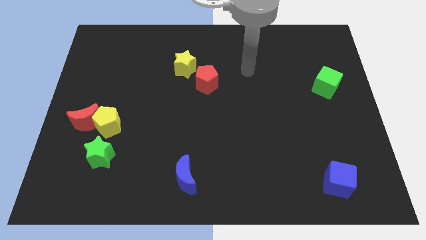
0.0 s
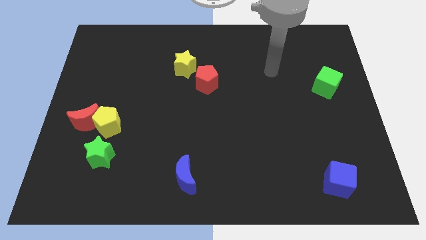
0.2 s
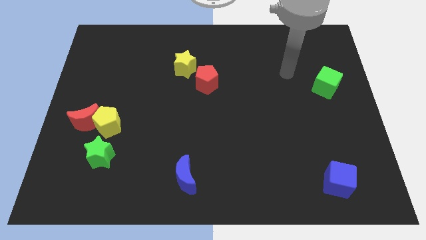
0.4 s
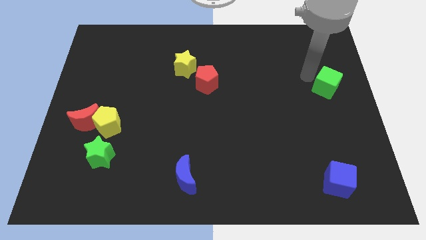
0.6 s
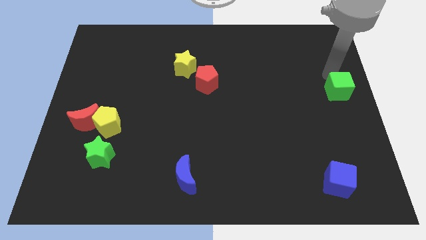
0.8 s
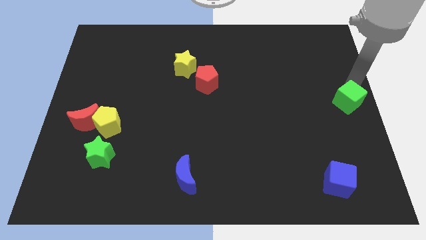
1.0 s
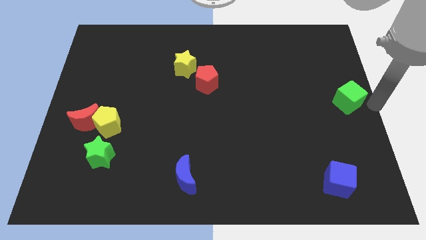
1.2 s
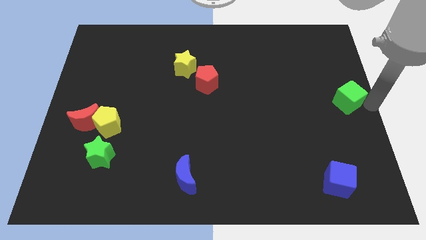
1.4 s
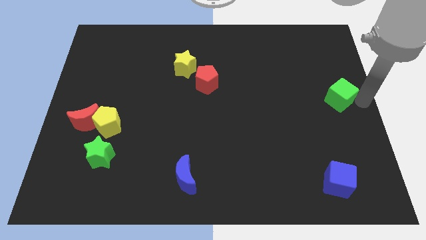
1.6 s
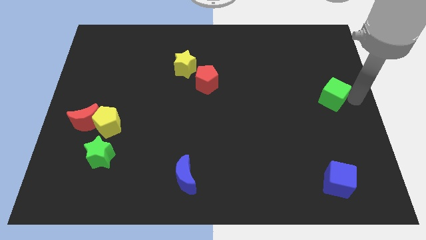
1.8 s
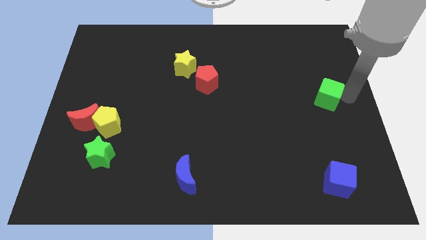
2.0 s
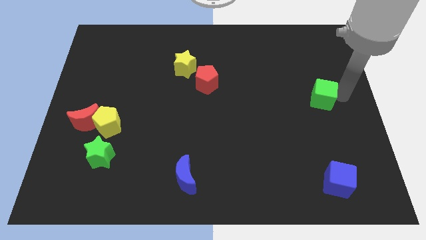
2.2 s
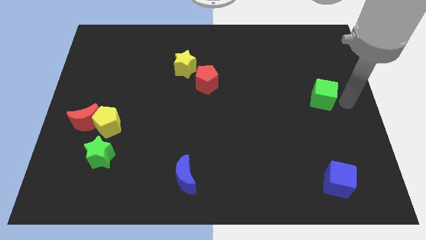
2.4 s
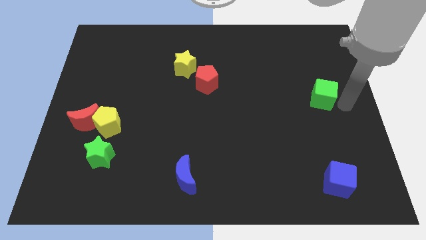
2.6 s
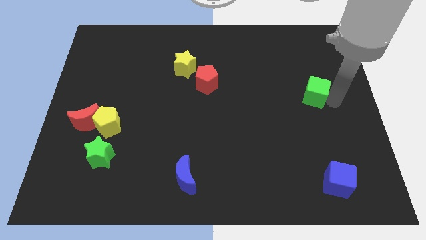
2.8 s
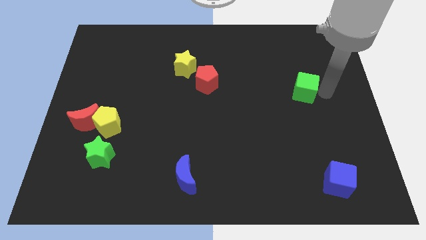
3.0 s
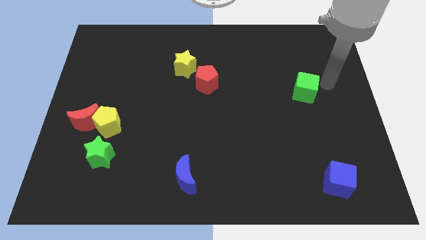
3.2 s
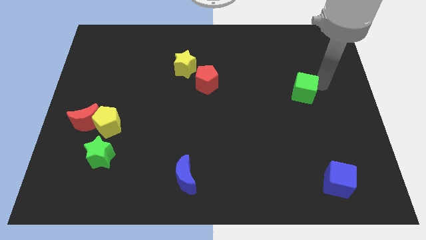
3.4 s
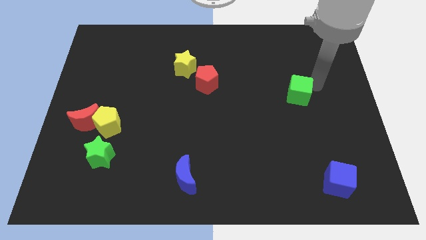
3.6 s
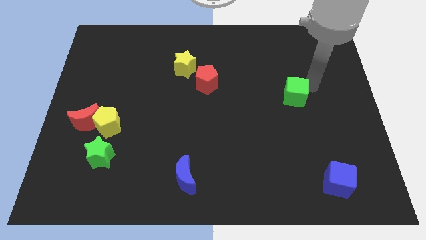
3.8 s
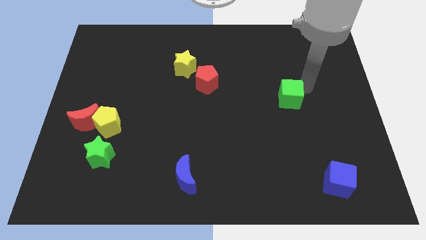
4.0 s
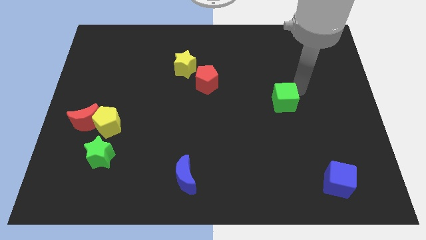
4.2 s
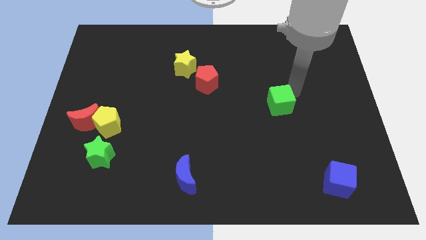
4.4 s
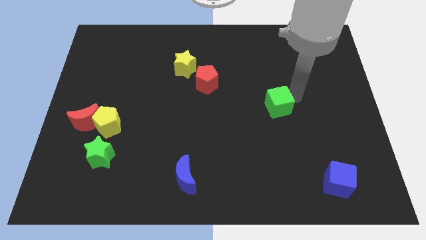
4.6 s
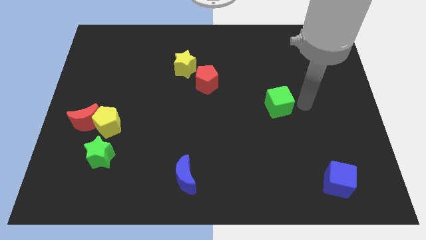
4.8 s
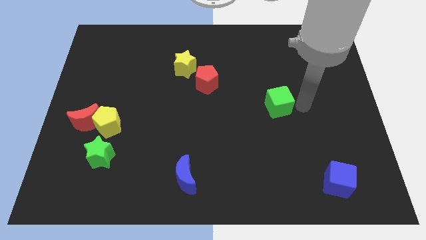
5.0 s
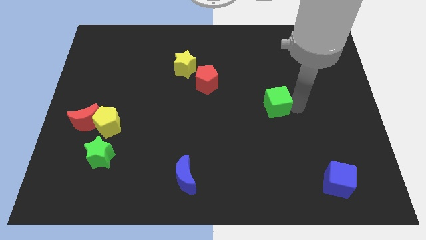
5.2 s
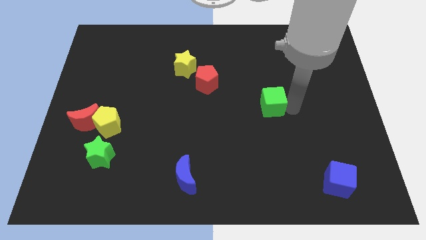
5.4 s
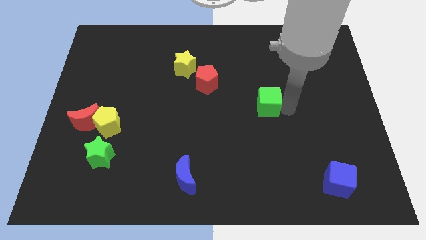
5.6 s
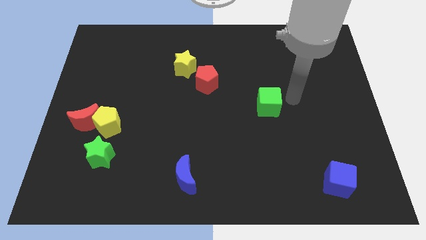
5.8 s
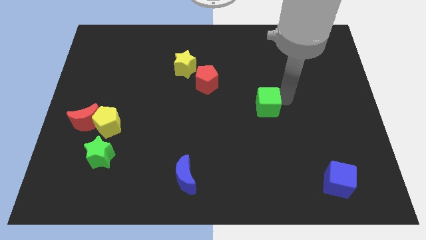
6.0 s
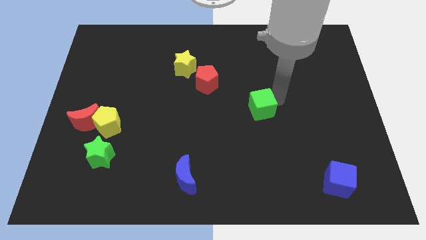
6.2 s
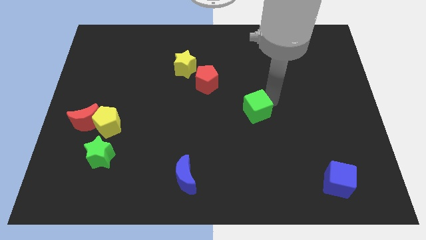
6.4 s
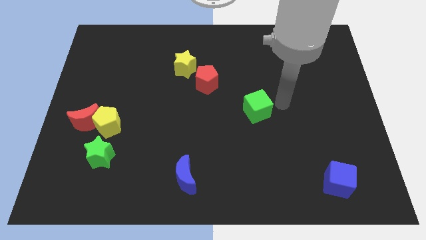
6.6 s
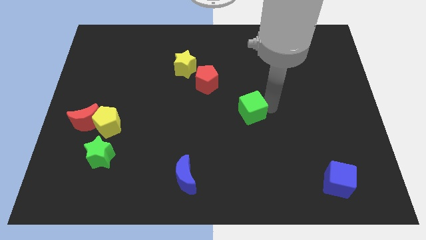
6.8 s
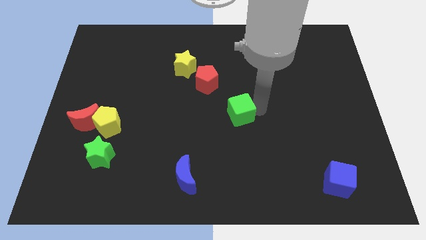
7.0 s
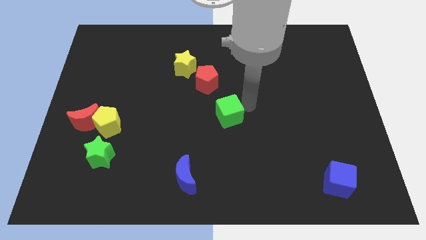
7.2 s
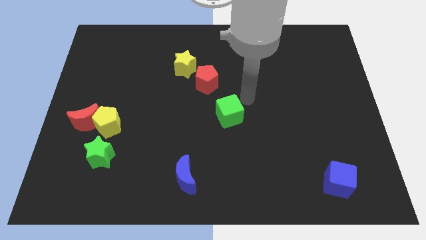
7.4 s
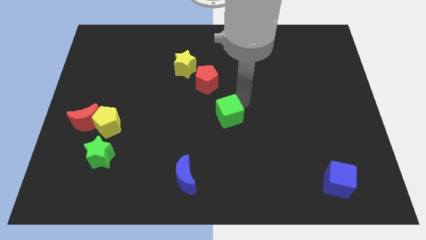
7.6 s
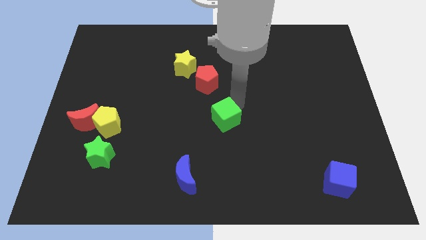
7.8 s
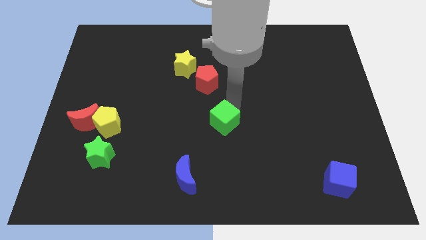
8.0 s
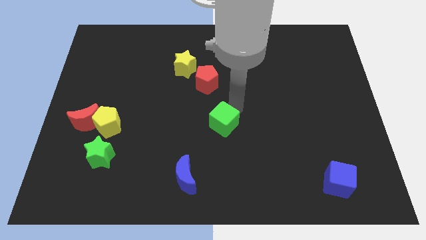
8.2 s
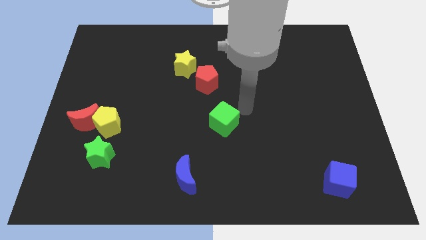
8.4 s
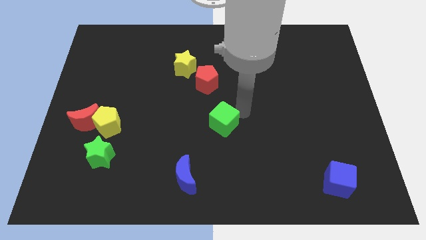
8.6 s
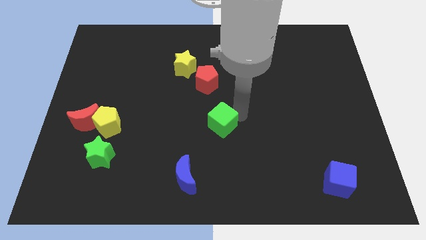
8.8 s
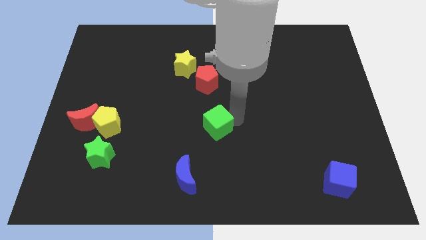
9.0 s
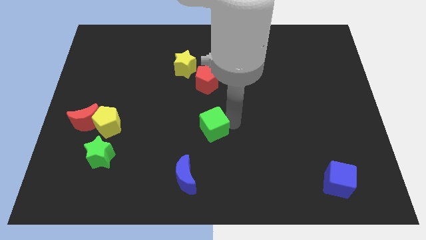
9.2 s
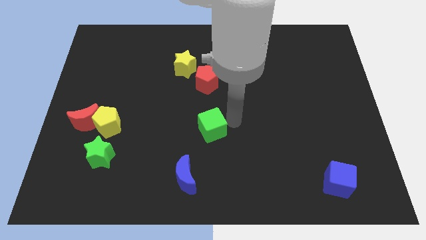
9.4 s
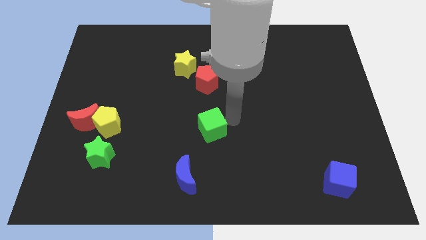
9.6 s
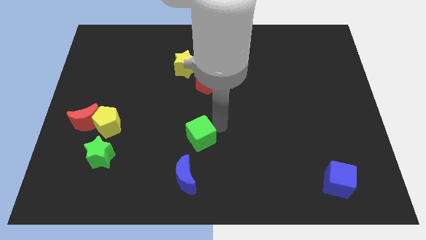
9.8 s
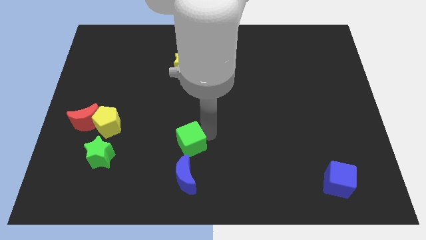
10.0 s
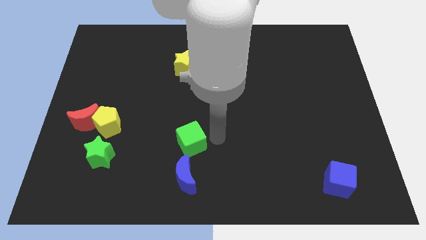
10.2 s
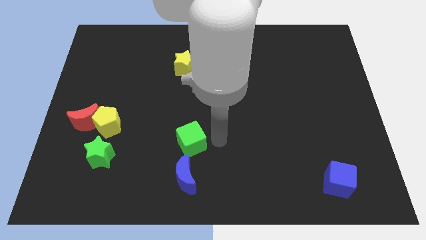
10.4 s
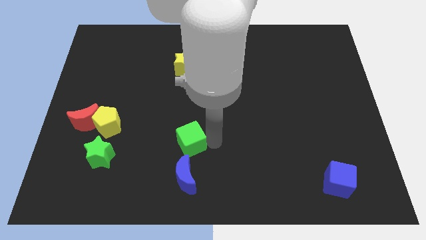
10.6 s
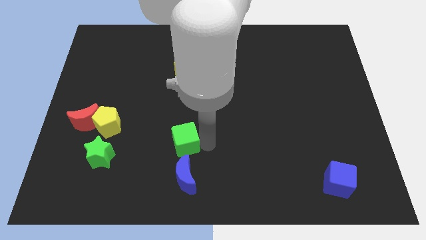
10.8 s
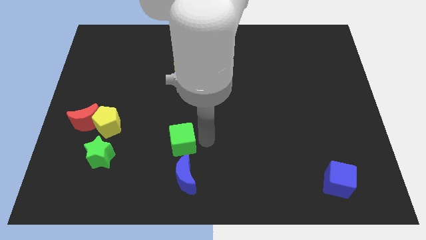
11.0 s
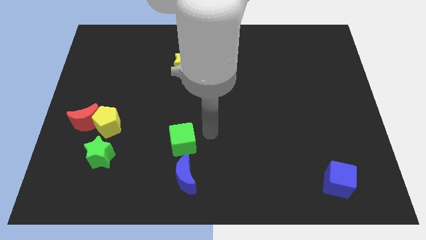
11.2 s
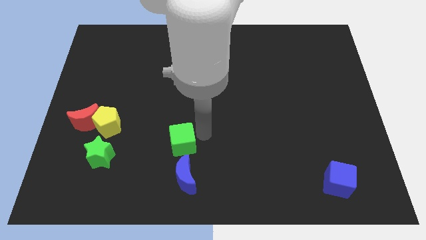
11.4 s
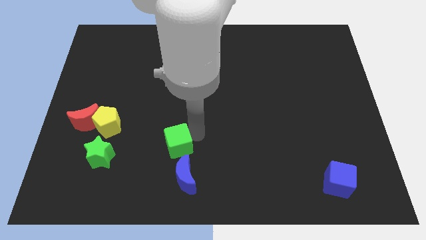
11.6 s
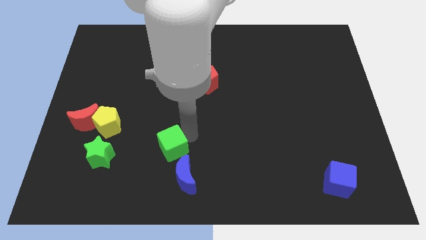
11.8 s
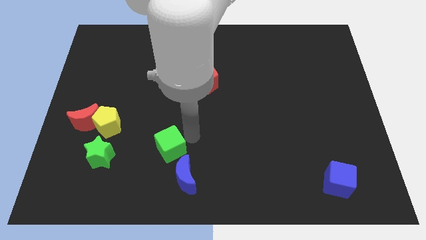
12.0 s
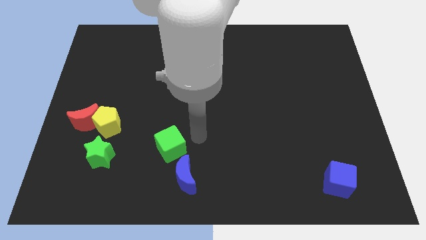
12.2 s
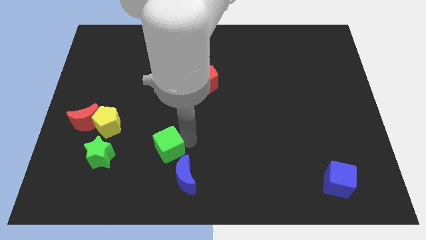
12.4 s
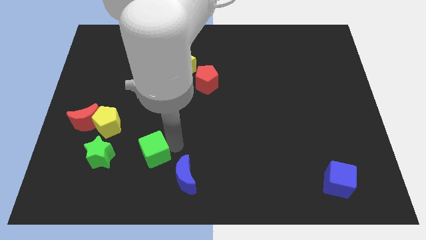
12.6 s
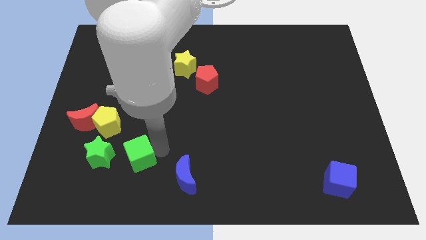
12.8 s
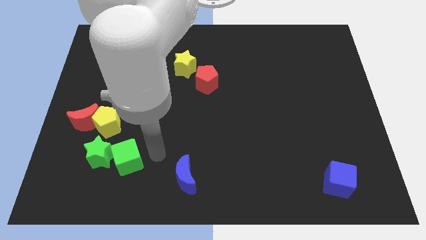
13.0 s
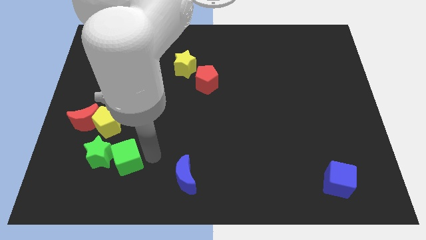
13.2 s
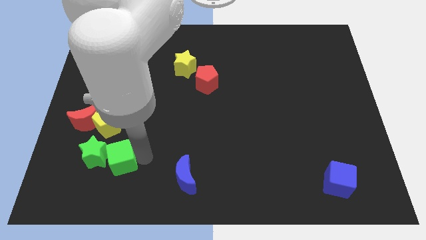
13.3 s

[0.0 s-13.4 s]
slide the green cube below the yellow pentagon

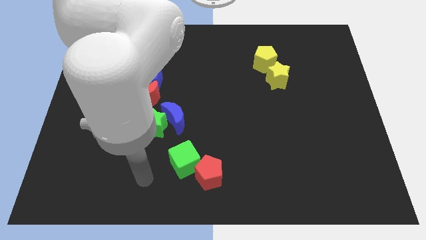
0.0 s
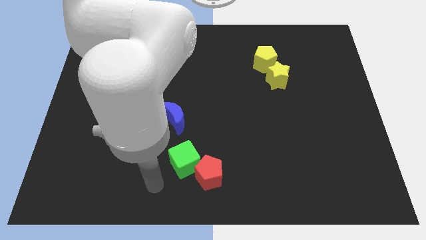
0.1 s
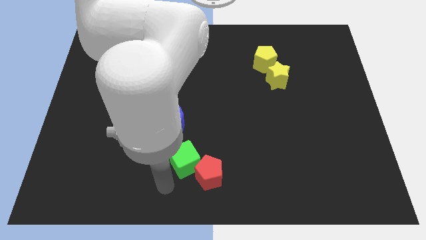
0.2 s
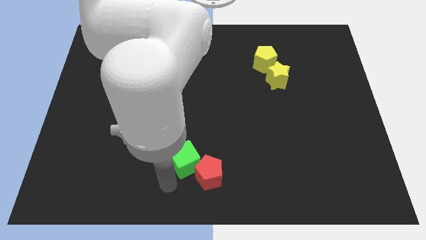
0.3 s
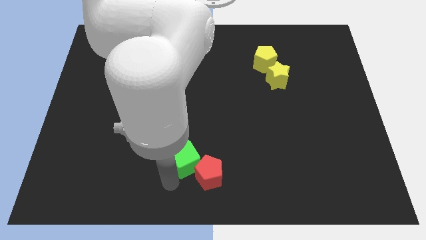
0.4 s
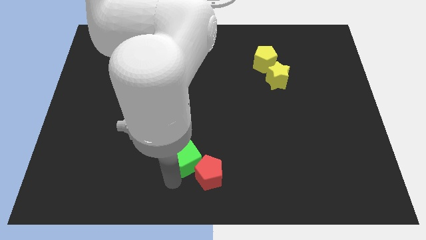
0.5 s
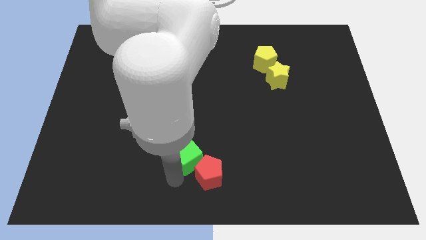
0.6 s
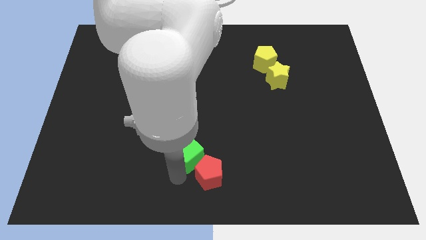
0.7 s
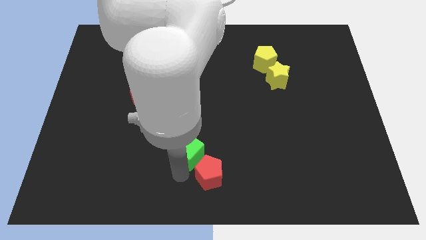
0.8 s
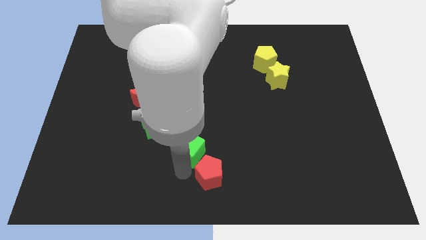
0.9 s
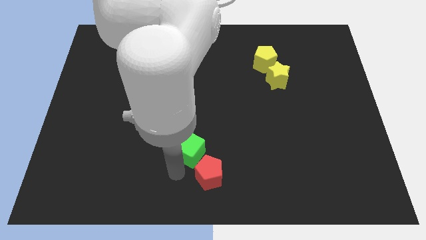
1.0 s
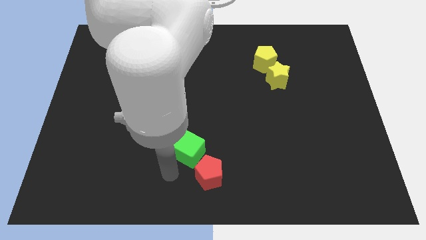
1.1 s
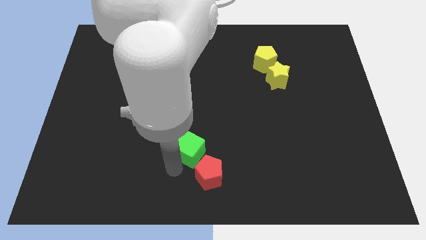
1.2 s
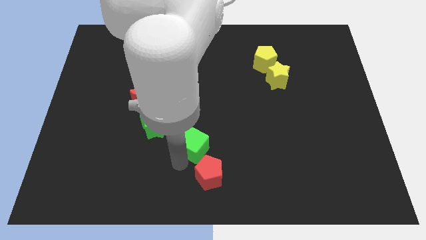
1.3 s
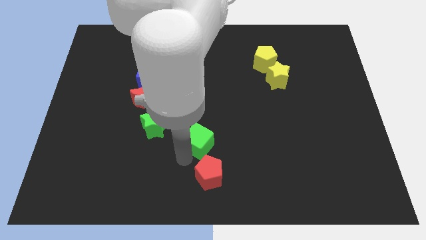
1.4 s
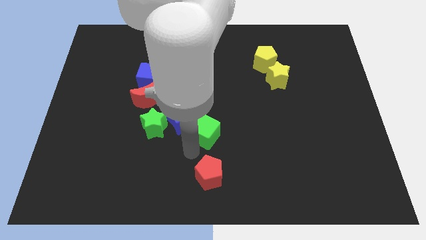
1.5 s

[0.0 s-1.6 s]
put the green cube to the right of the blue moon
